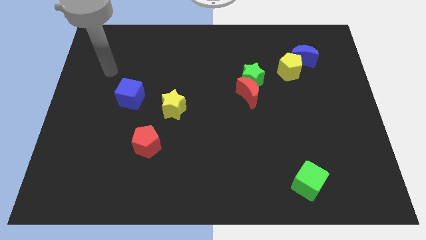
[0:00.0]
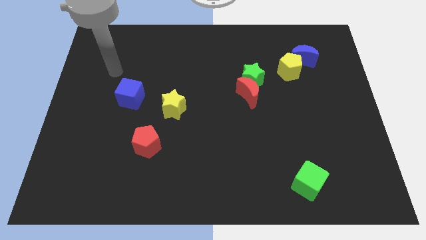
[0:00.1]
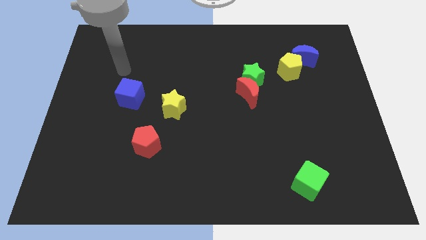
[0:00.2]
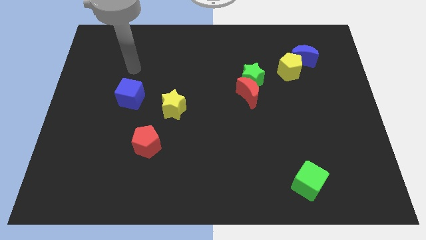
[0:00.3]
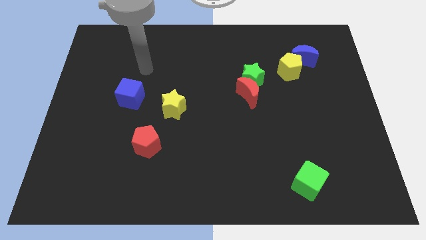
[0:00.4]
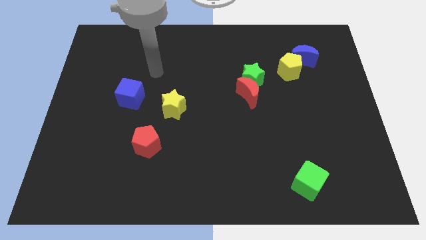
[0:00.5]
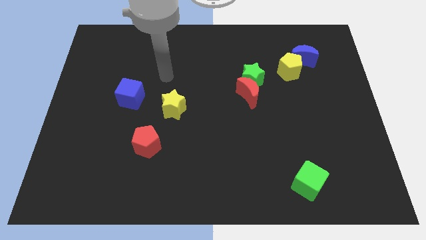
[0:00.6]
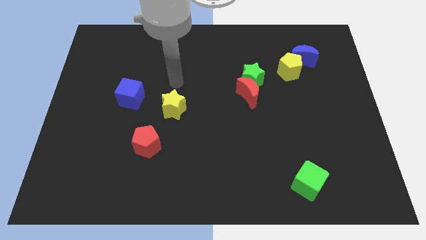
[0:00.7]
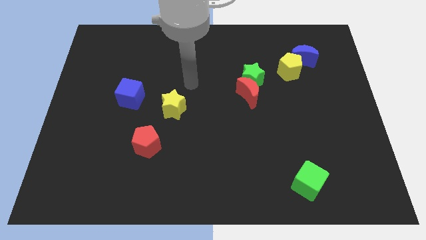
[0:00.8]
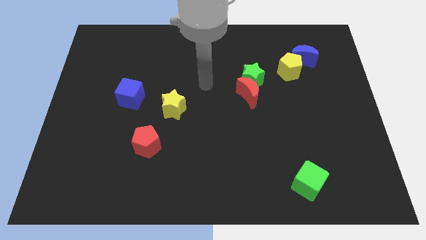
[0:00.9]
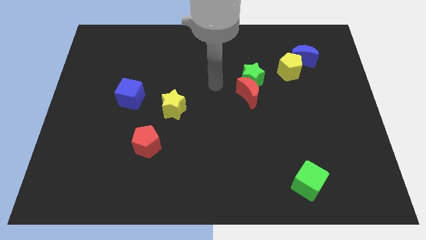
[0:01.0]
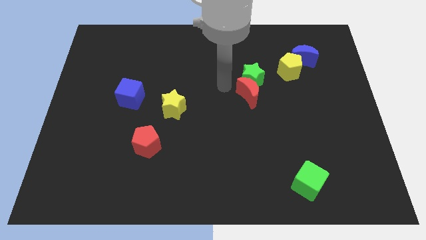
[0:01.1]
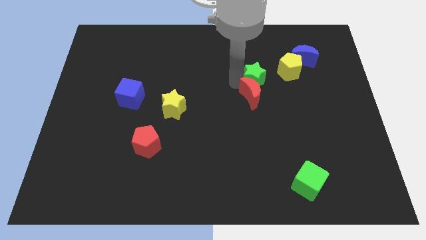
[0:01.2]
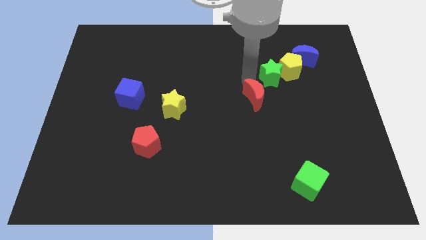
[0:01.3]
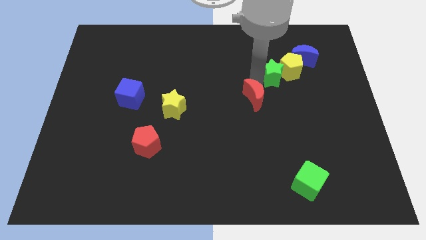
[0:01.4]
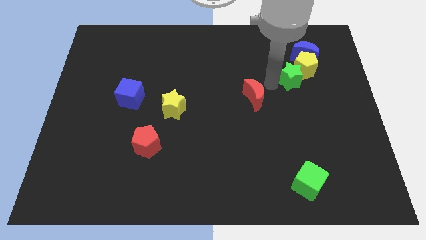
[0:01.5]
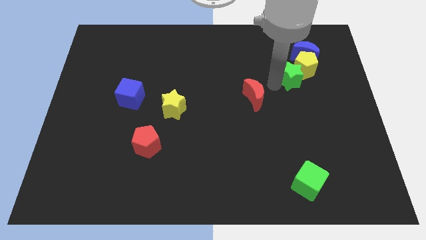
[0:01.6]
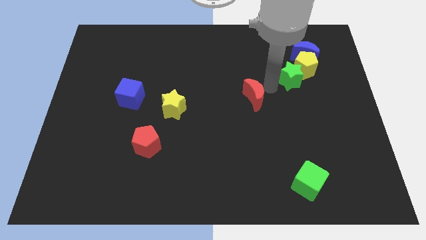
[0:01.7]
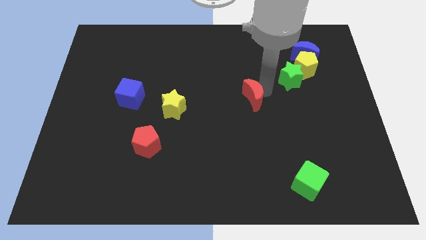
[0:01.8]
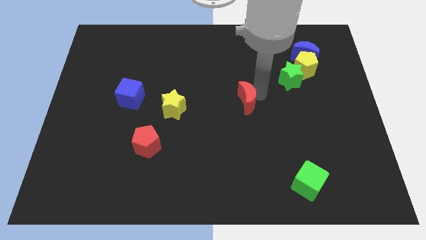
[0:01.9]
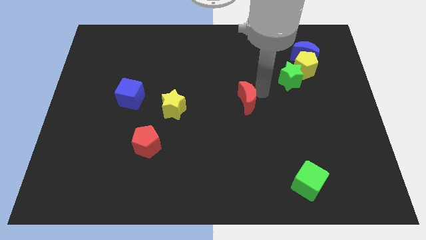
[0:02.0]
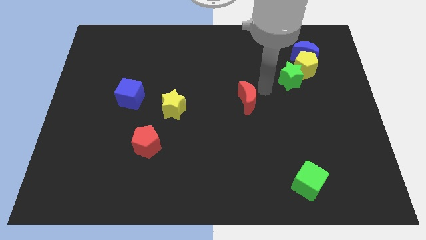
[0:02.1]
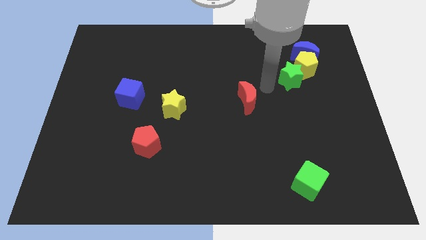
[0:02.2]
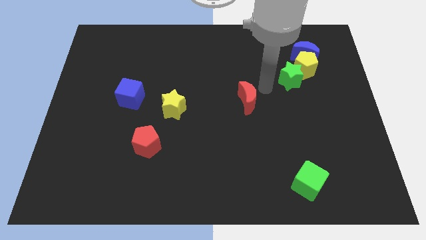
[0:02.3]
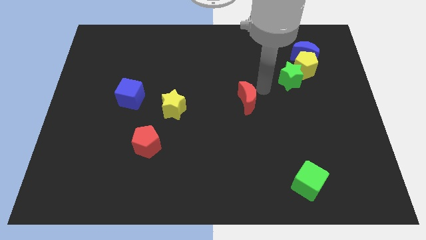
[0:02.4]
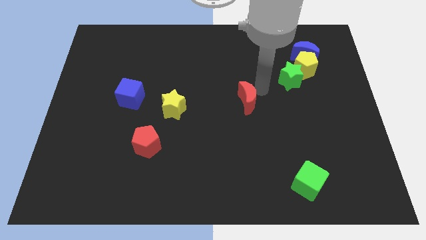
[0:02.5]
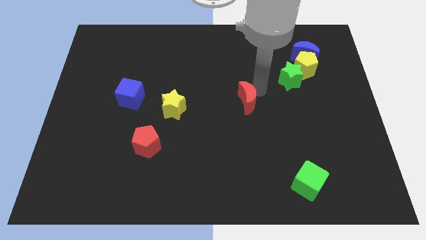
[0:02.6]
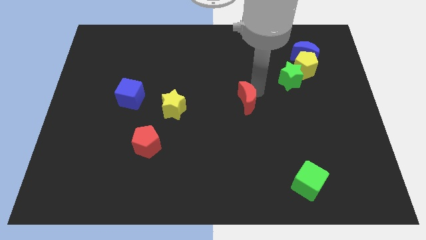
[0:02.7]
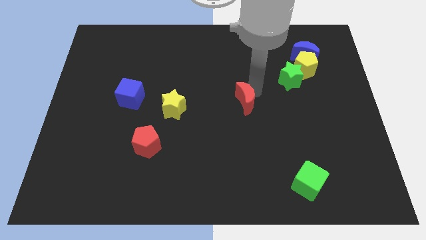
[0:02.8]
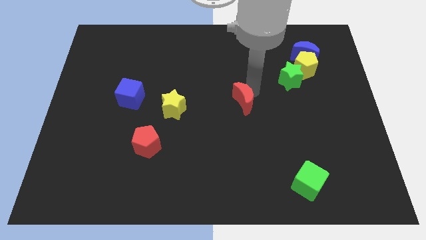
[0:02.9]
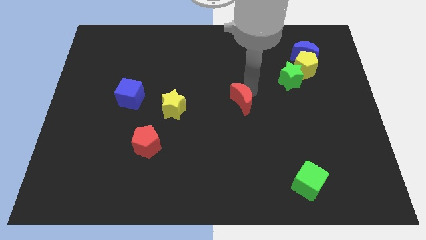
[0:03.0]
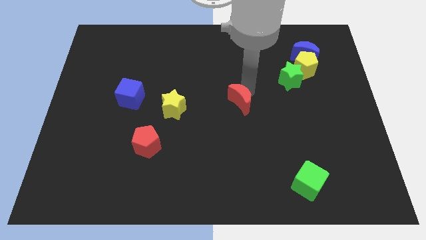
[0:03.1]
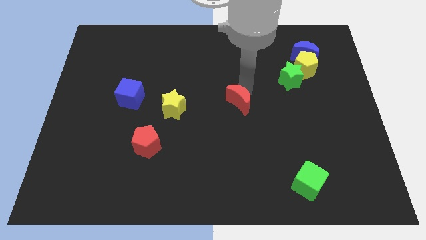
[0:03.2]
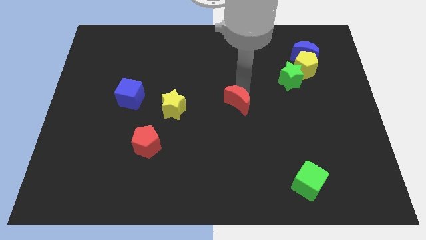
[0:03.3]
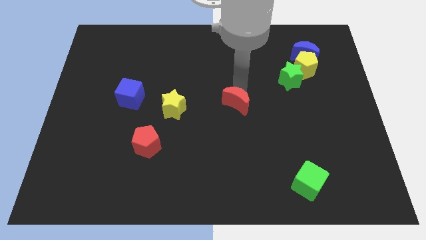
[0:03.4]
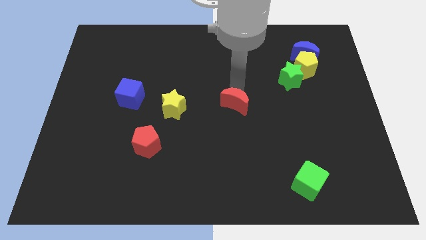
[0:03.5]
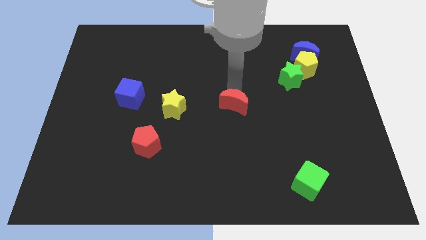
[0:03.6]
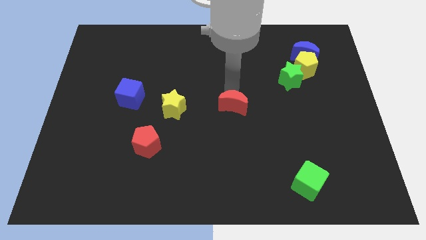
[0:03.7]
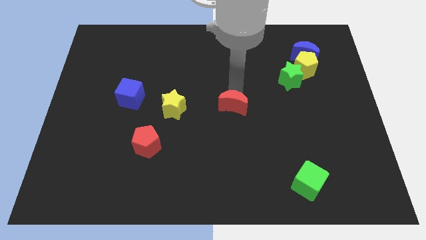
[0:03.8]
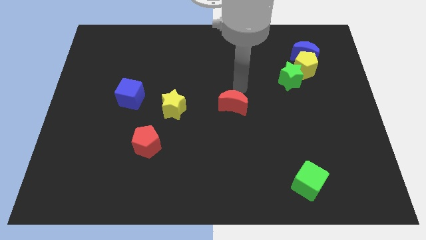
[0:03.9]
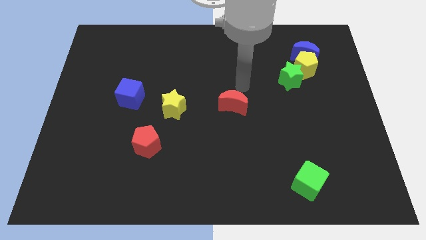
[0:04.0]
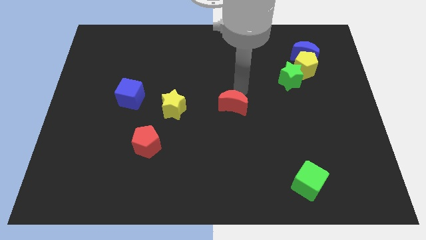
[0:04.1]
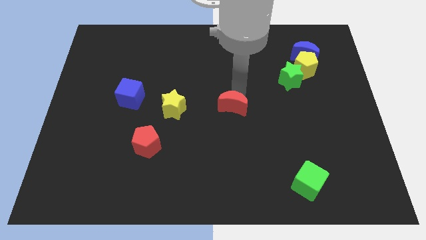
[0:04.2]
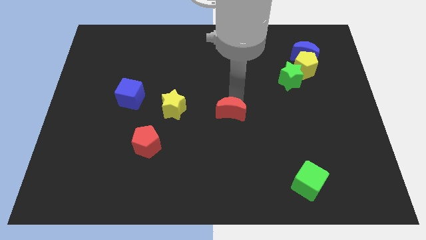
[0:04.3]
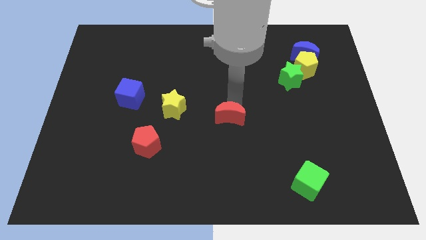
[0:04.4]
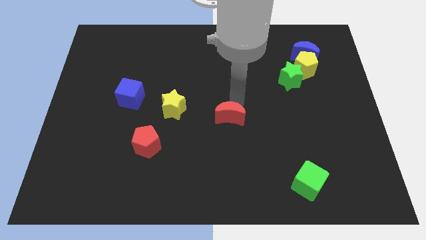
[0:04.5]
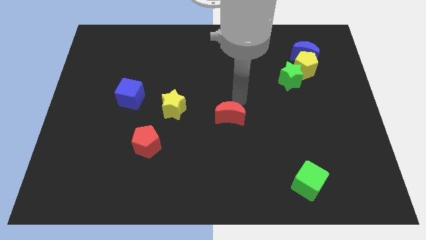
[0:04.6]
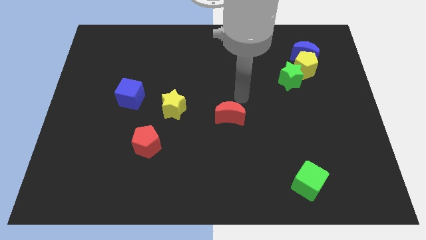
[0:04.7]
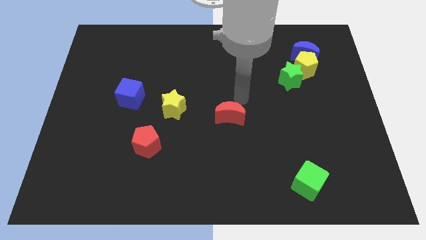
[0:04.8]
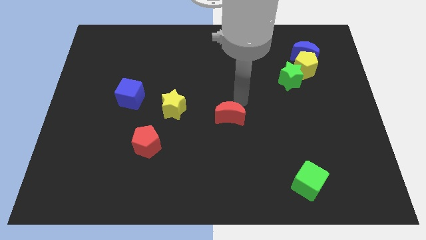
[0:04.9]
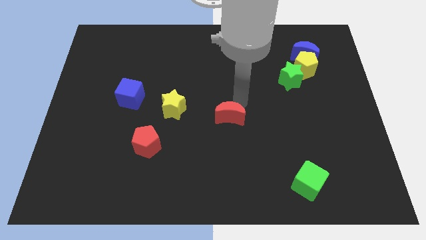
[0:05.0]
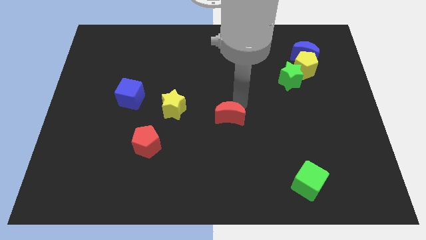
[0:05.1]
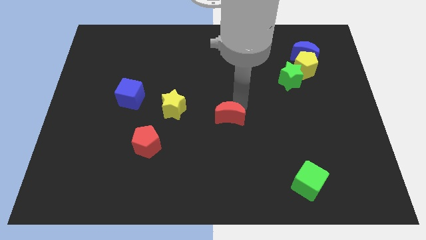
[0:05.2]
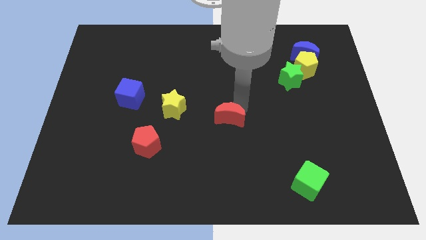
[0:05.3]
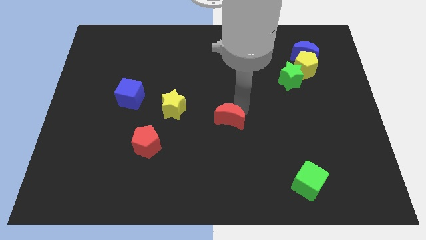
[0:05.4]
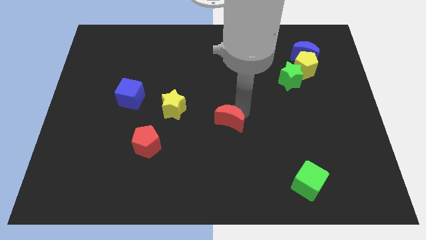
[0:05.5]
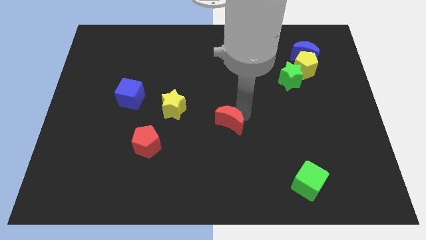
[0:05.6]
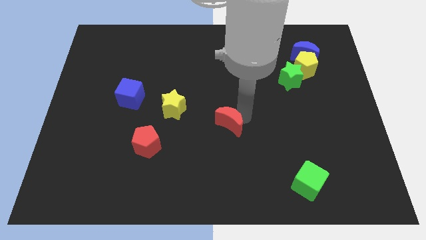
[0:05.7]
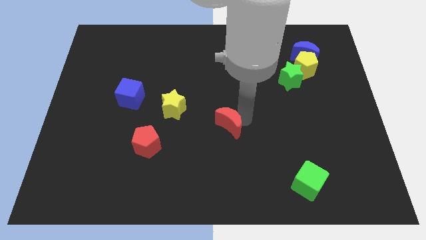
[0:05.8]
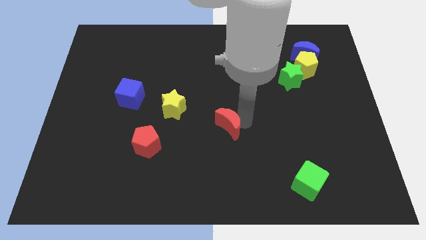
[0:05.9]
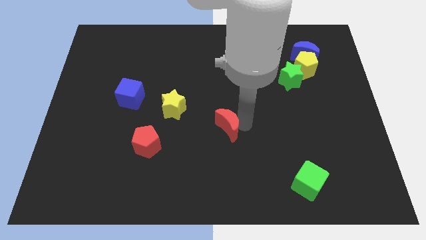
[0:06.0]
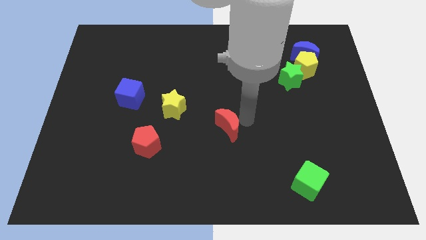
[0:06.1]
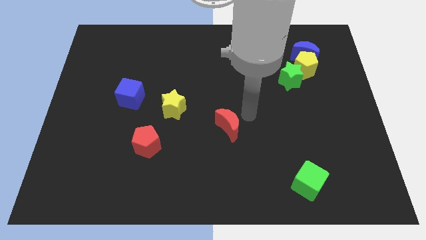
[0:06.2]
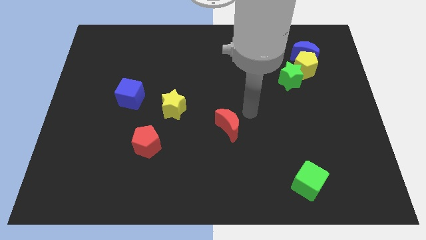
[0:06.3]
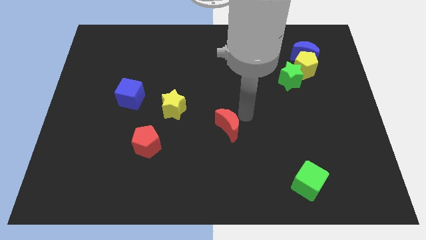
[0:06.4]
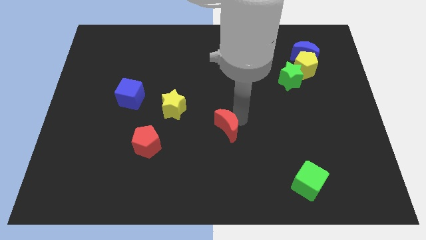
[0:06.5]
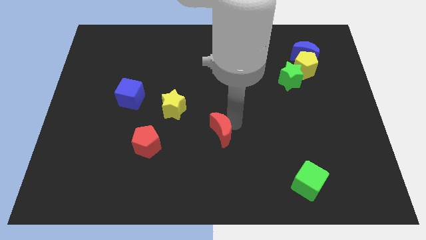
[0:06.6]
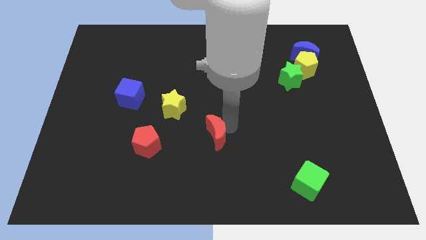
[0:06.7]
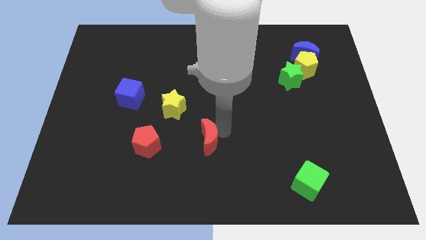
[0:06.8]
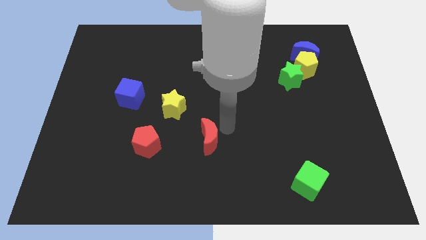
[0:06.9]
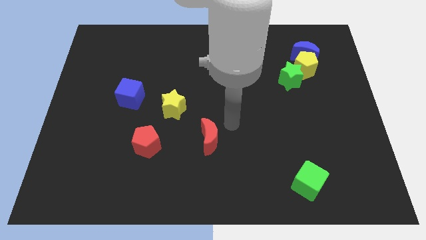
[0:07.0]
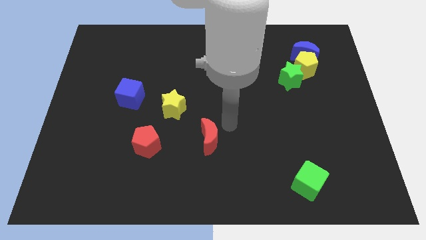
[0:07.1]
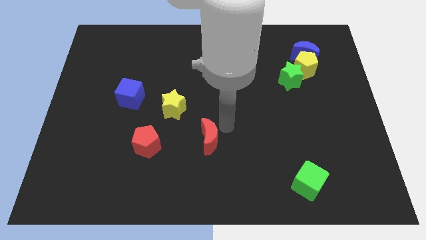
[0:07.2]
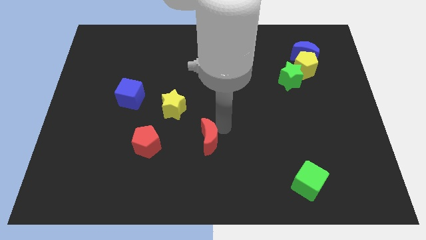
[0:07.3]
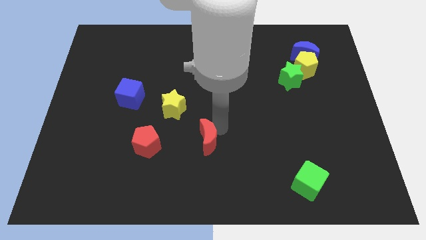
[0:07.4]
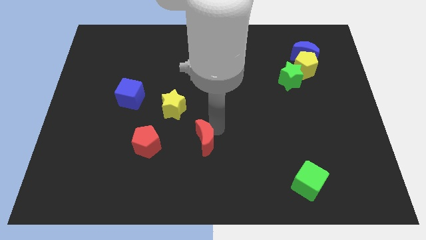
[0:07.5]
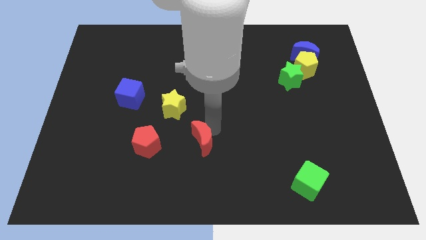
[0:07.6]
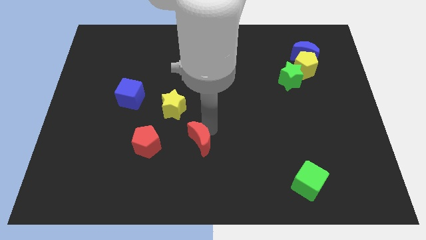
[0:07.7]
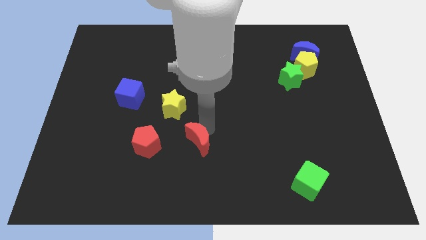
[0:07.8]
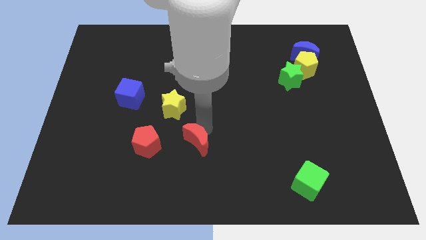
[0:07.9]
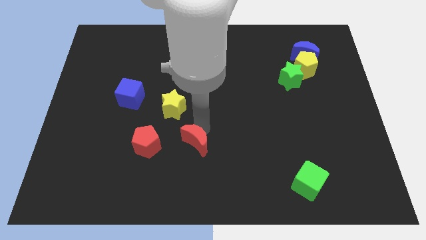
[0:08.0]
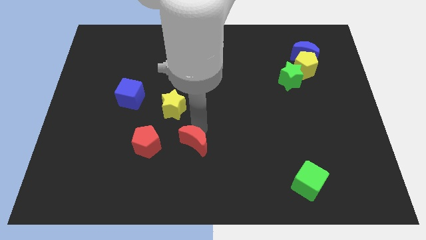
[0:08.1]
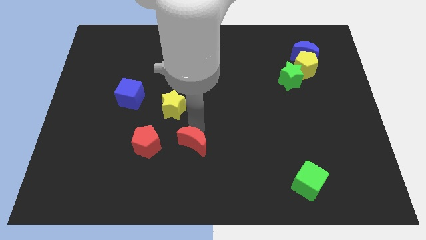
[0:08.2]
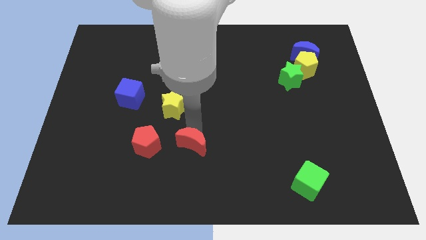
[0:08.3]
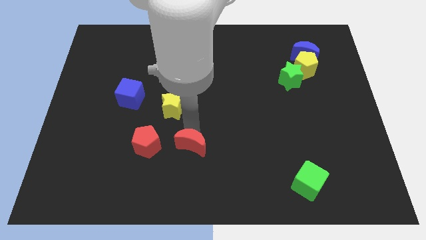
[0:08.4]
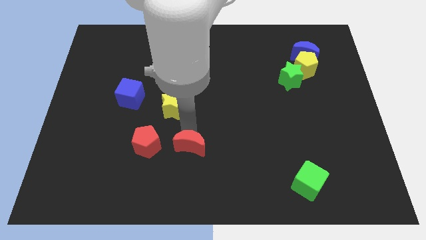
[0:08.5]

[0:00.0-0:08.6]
slide the red moon down and left diagonally
